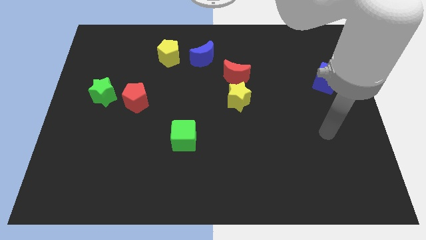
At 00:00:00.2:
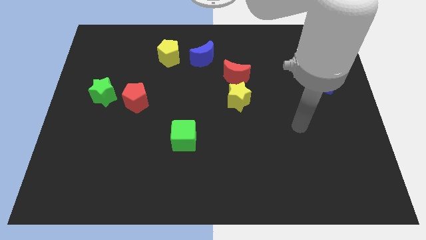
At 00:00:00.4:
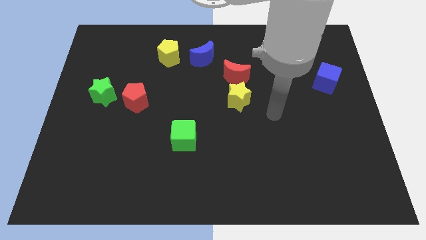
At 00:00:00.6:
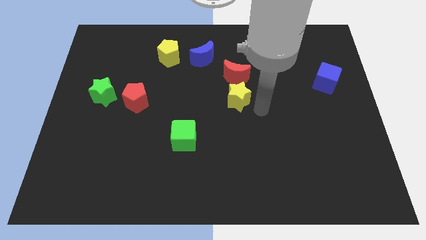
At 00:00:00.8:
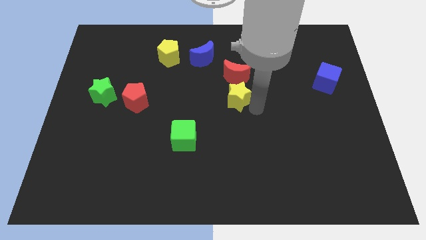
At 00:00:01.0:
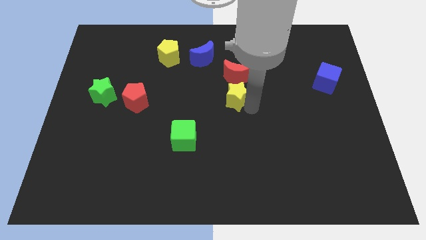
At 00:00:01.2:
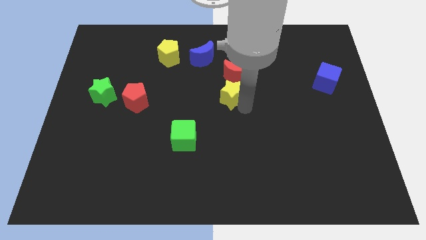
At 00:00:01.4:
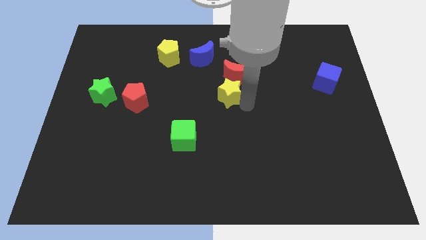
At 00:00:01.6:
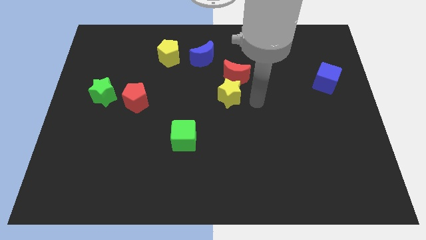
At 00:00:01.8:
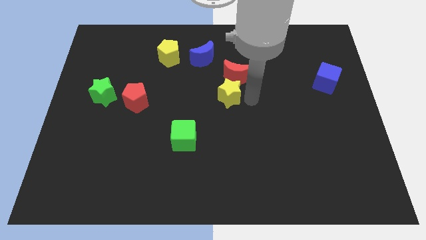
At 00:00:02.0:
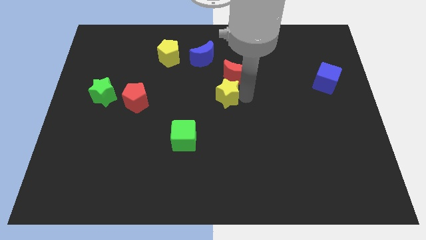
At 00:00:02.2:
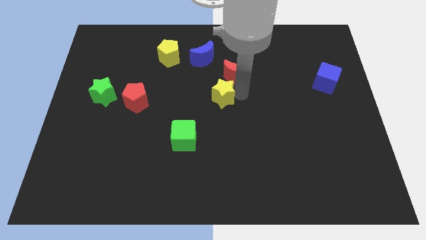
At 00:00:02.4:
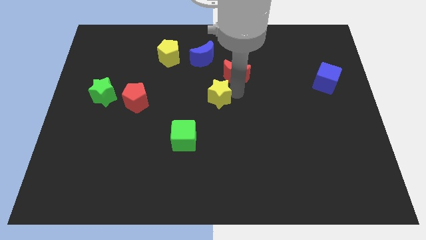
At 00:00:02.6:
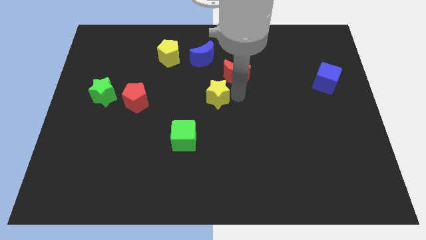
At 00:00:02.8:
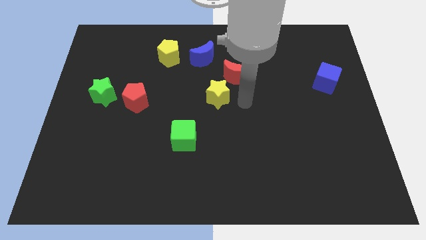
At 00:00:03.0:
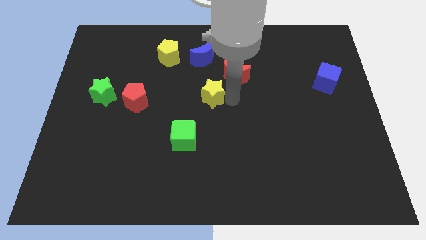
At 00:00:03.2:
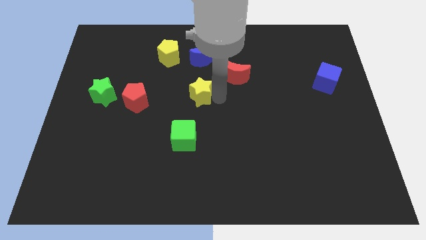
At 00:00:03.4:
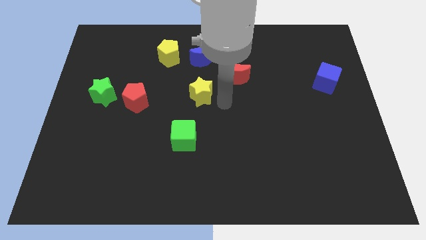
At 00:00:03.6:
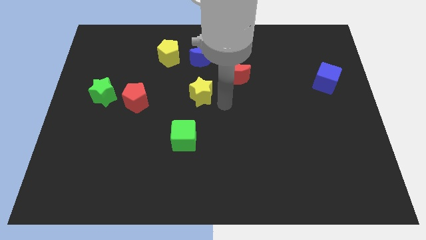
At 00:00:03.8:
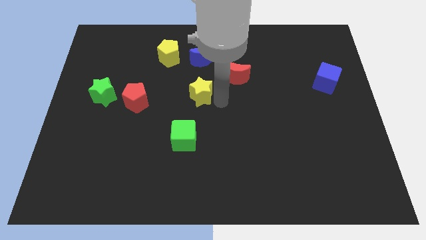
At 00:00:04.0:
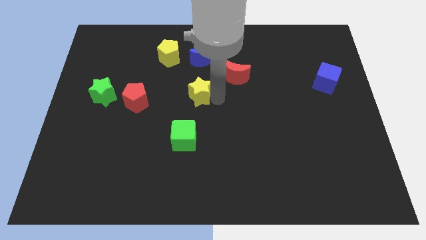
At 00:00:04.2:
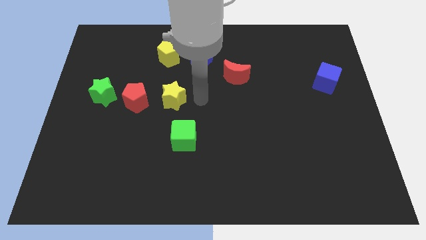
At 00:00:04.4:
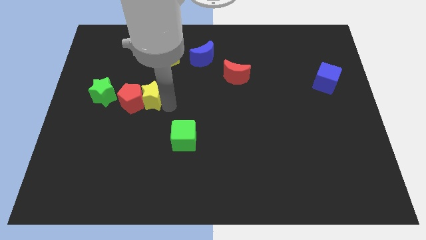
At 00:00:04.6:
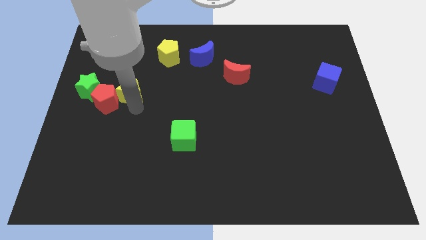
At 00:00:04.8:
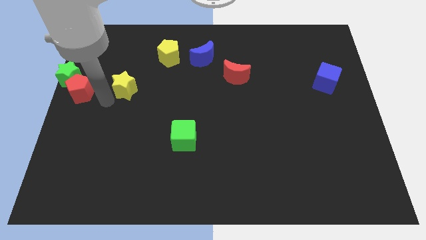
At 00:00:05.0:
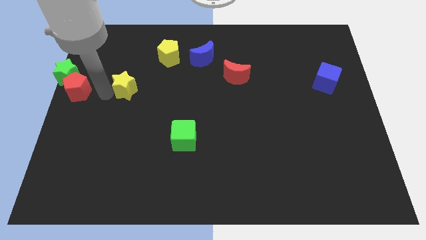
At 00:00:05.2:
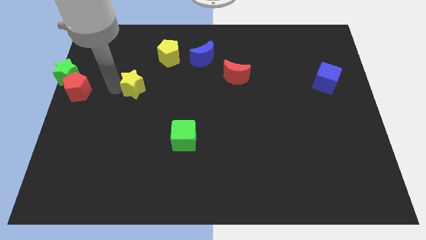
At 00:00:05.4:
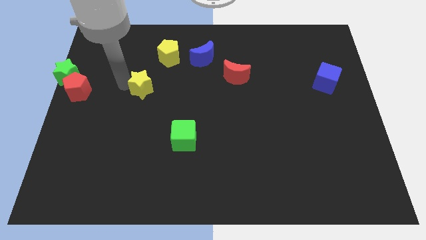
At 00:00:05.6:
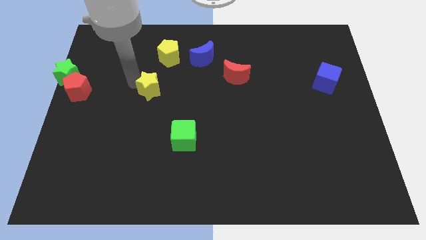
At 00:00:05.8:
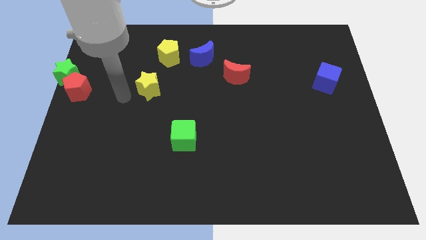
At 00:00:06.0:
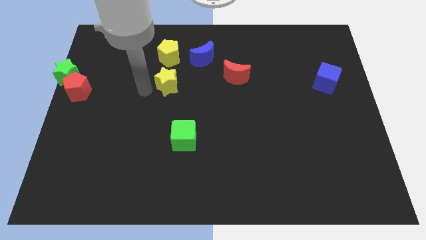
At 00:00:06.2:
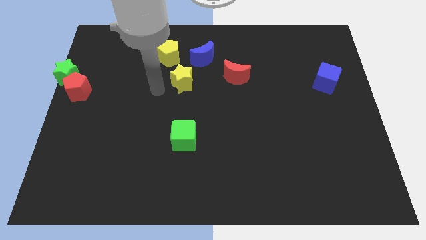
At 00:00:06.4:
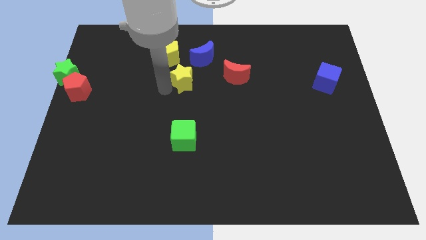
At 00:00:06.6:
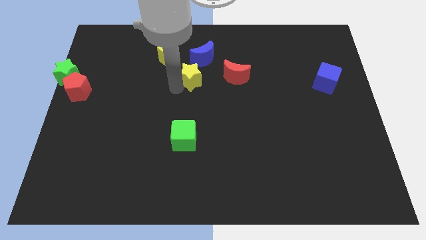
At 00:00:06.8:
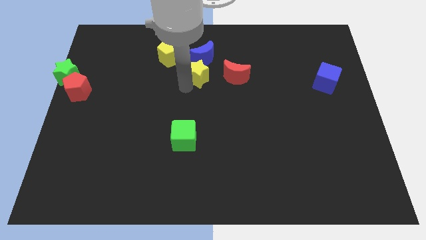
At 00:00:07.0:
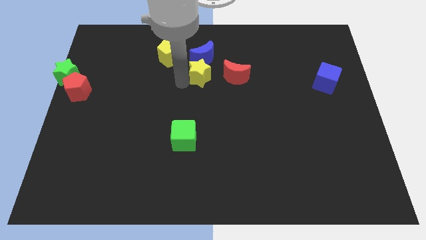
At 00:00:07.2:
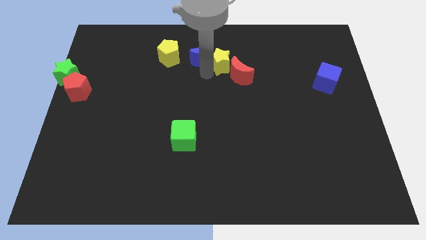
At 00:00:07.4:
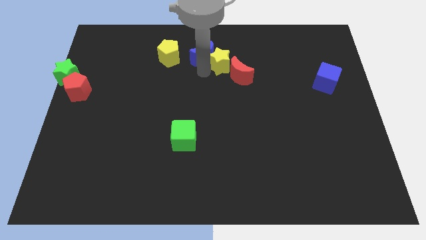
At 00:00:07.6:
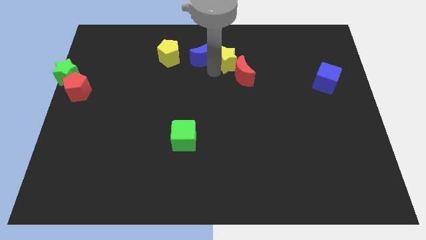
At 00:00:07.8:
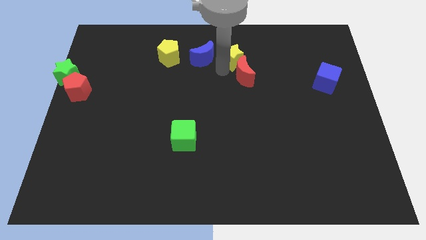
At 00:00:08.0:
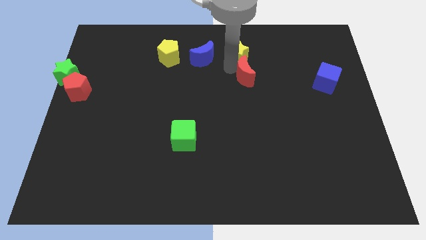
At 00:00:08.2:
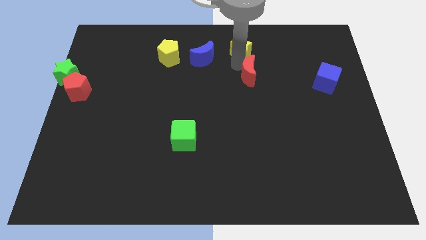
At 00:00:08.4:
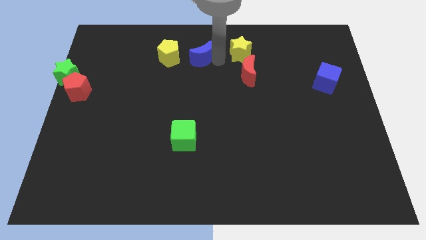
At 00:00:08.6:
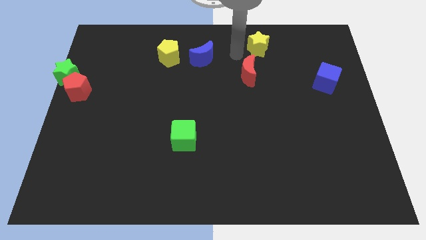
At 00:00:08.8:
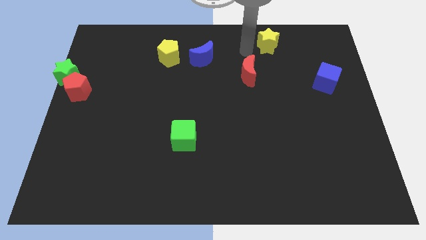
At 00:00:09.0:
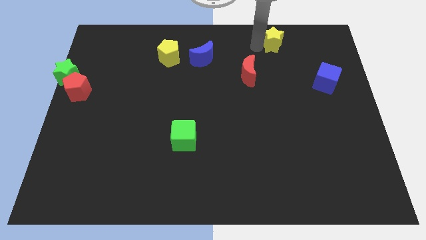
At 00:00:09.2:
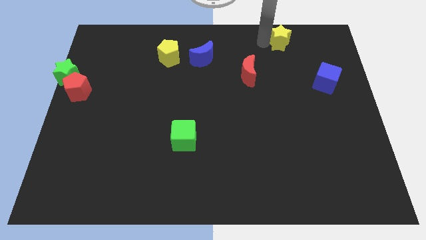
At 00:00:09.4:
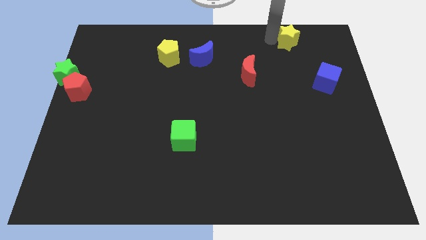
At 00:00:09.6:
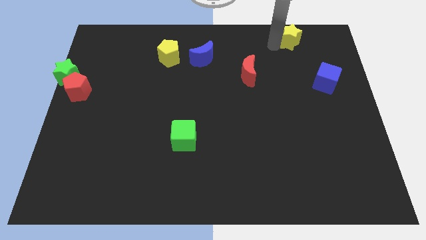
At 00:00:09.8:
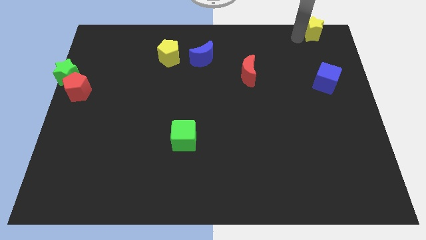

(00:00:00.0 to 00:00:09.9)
slide the yellow star to the upper right corner

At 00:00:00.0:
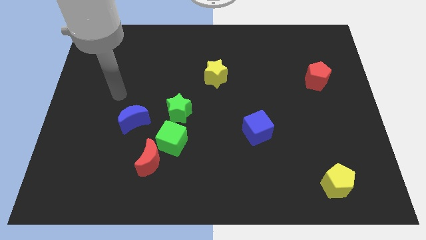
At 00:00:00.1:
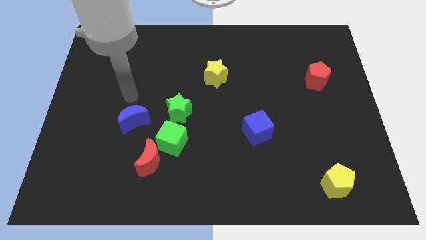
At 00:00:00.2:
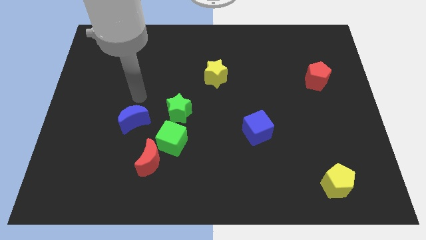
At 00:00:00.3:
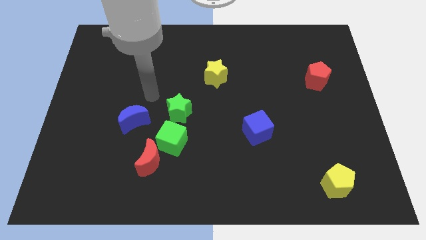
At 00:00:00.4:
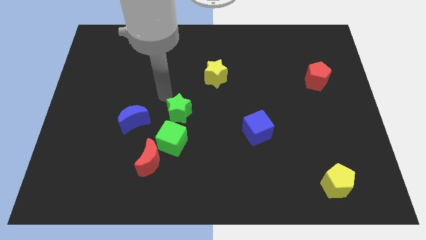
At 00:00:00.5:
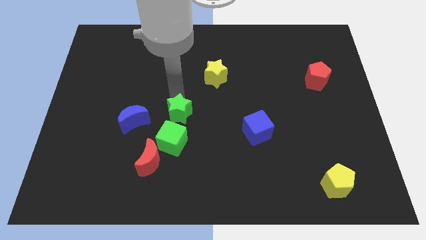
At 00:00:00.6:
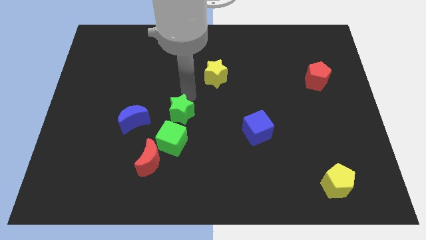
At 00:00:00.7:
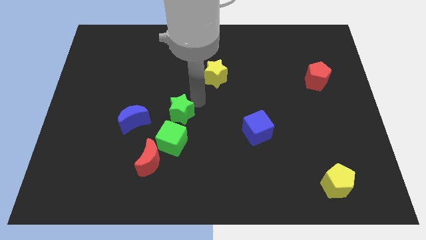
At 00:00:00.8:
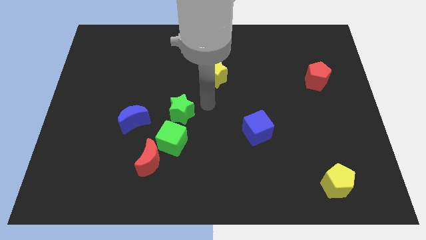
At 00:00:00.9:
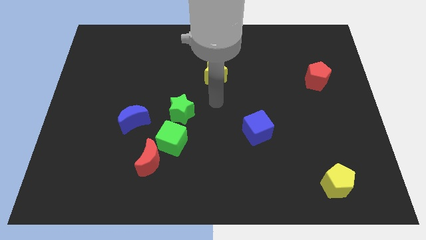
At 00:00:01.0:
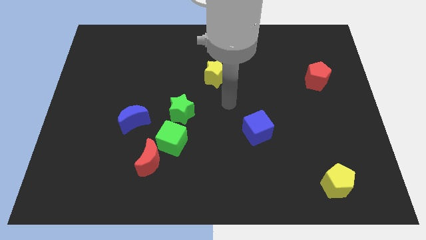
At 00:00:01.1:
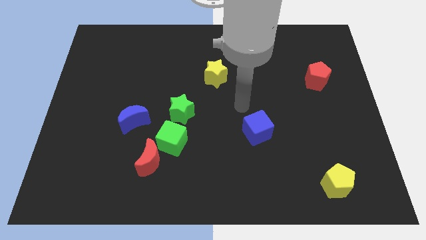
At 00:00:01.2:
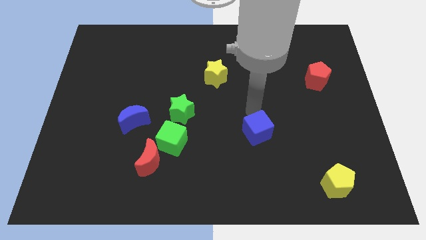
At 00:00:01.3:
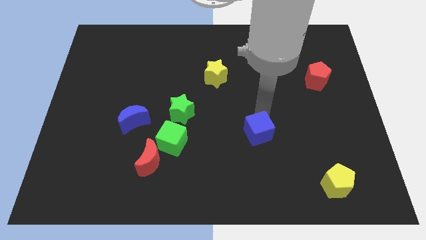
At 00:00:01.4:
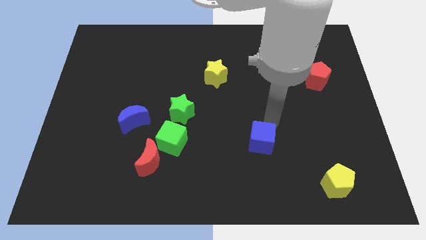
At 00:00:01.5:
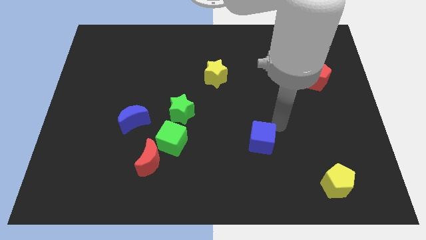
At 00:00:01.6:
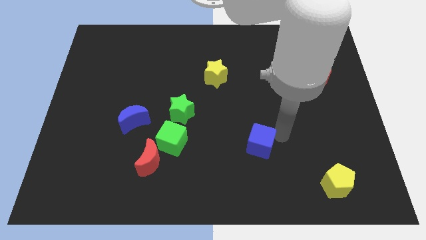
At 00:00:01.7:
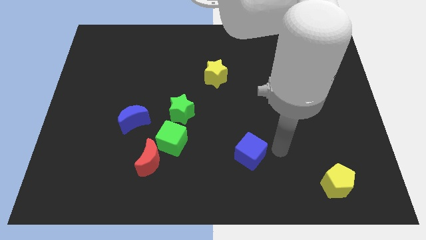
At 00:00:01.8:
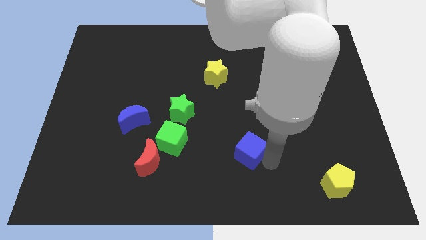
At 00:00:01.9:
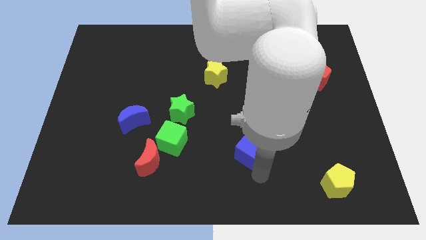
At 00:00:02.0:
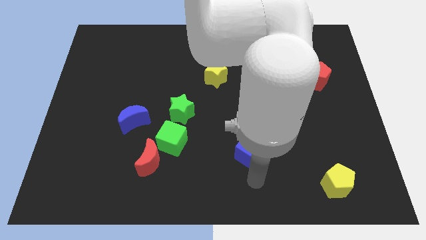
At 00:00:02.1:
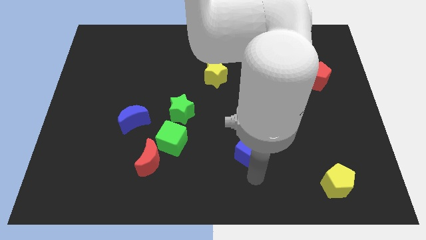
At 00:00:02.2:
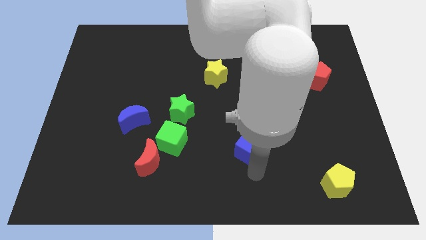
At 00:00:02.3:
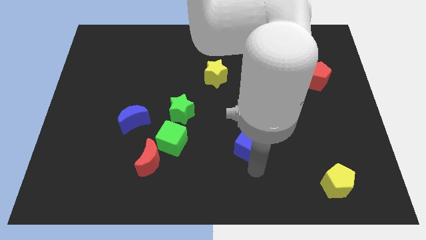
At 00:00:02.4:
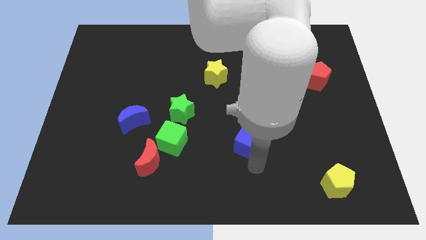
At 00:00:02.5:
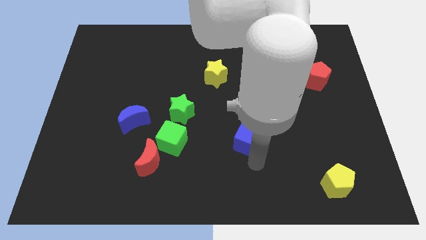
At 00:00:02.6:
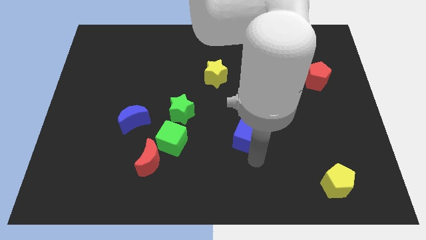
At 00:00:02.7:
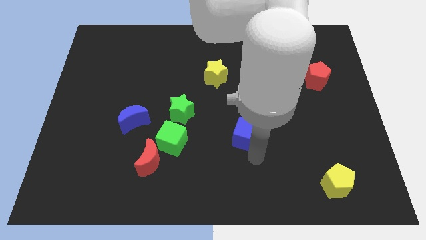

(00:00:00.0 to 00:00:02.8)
move the blue cube to the center of the board
